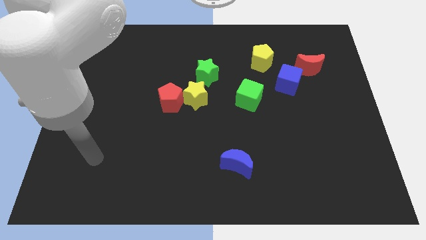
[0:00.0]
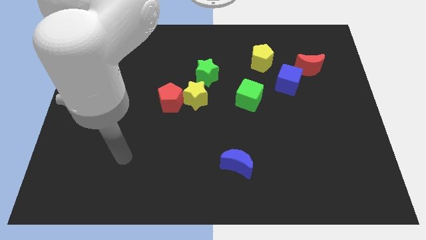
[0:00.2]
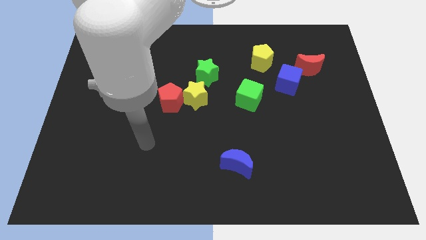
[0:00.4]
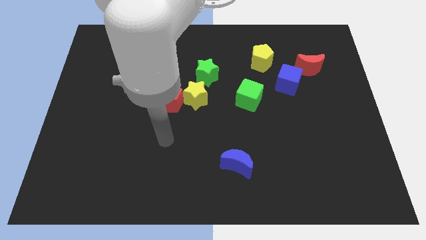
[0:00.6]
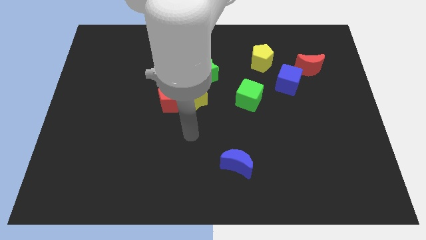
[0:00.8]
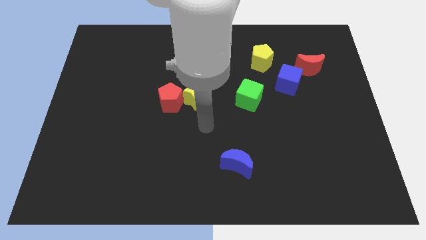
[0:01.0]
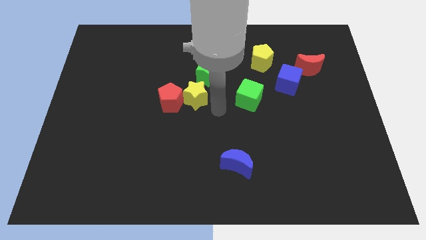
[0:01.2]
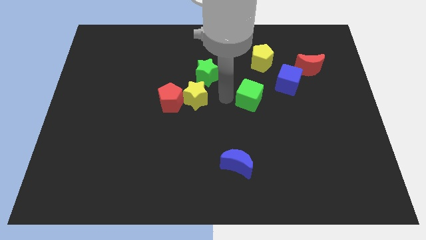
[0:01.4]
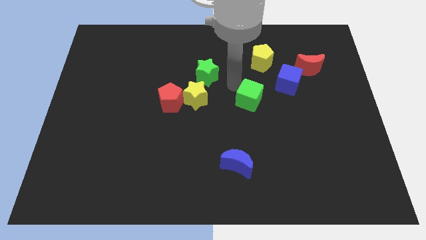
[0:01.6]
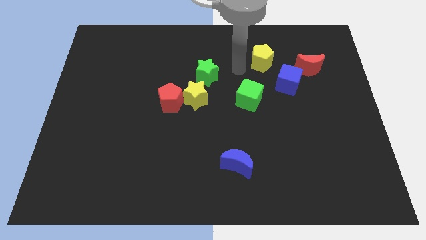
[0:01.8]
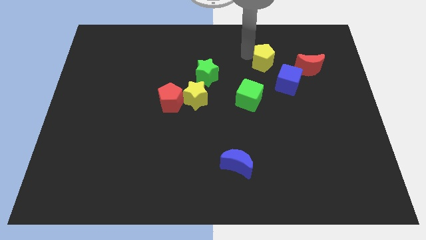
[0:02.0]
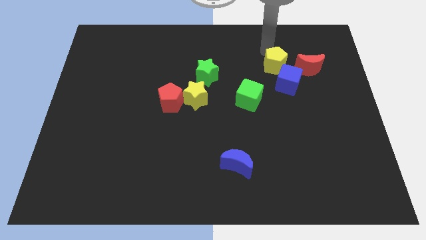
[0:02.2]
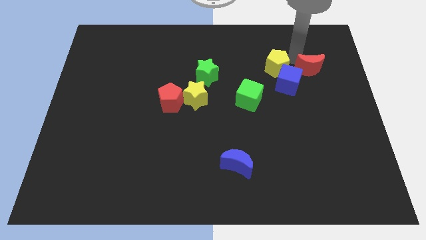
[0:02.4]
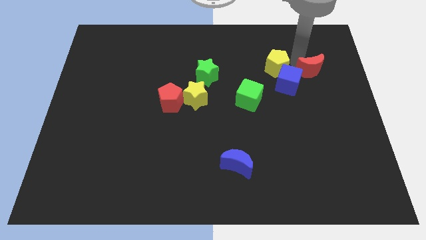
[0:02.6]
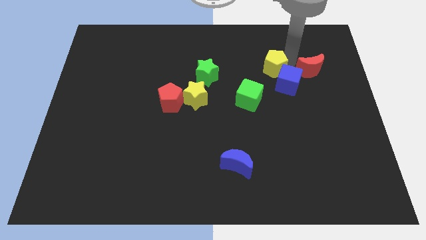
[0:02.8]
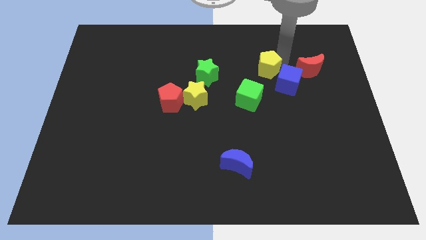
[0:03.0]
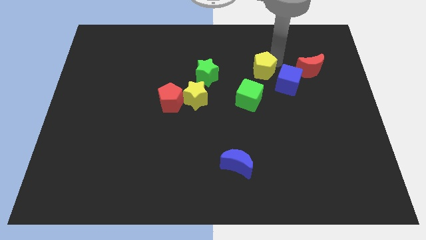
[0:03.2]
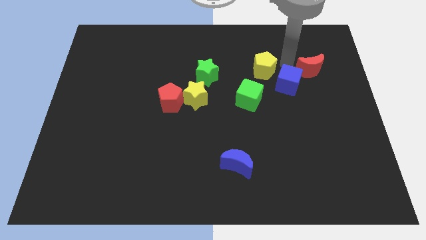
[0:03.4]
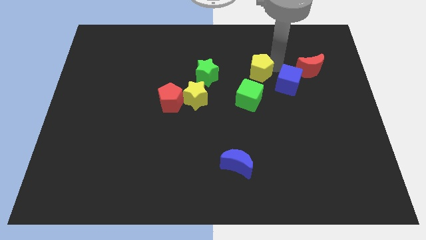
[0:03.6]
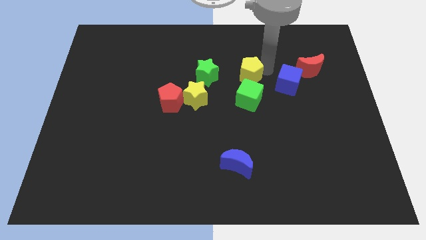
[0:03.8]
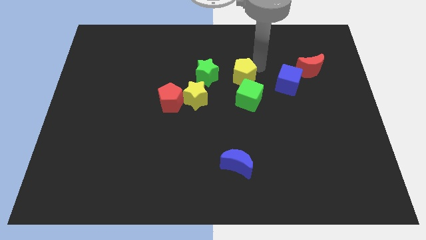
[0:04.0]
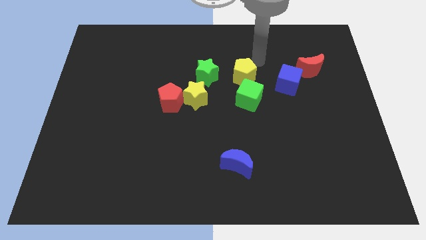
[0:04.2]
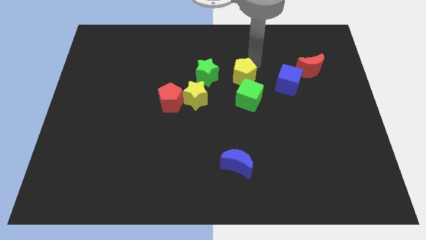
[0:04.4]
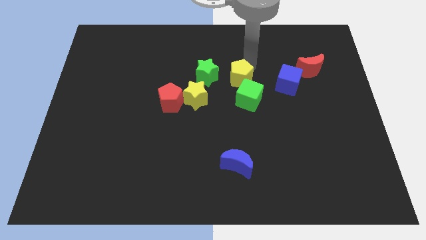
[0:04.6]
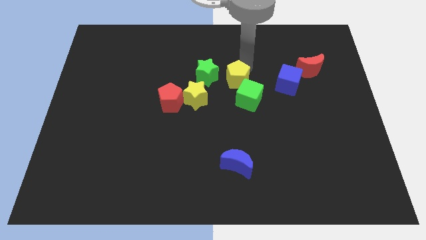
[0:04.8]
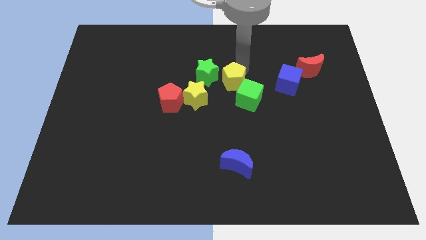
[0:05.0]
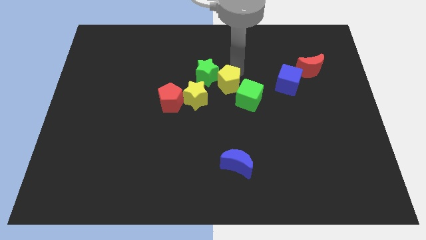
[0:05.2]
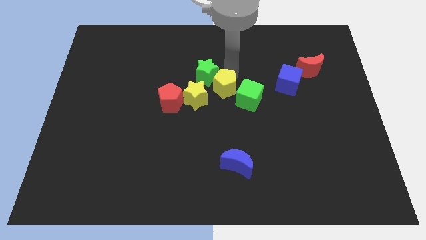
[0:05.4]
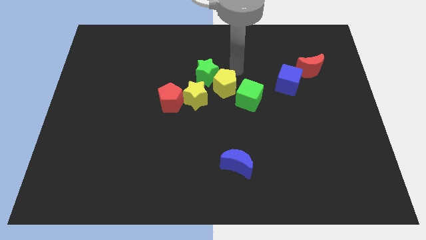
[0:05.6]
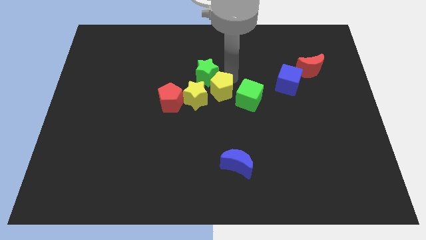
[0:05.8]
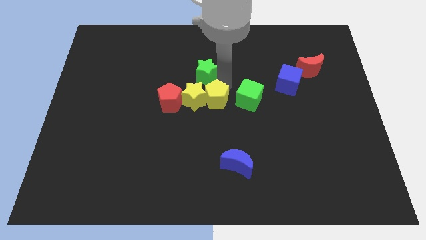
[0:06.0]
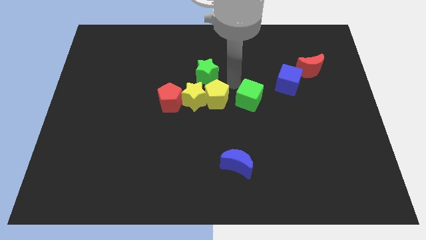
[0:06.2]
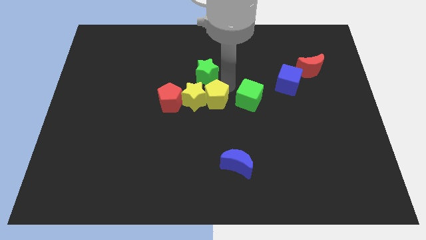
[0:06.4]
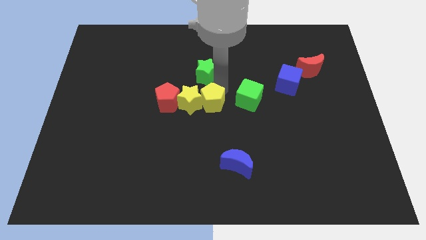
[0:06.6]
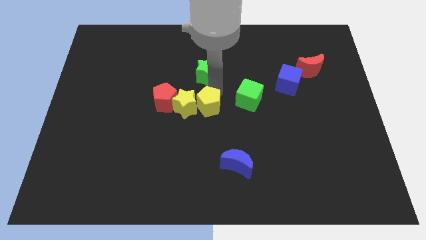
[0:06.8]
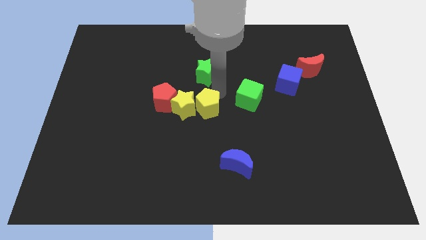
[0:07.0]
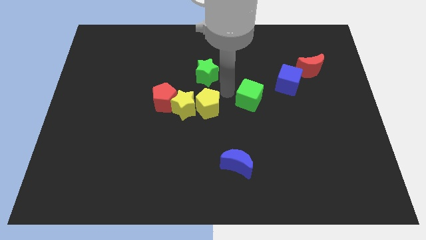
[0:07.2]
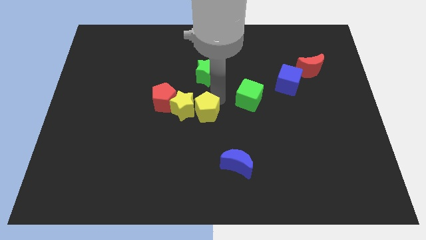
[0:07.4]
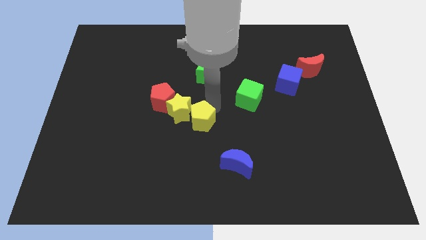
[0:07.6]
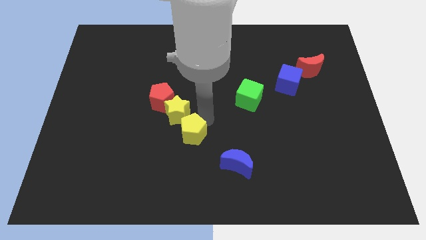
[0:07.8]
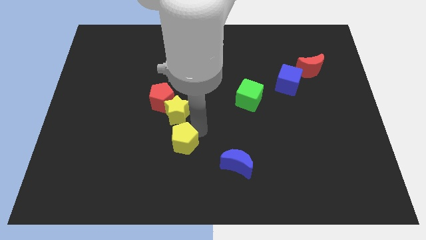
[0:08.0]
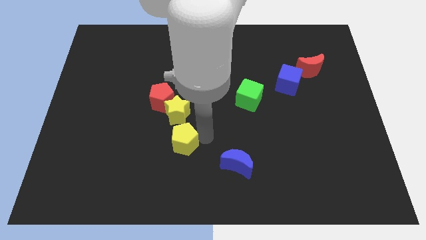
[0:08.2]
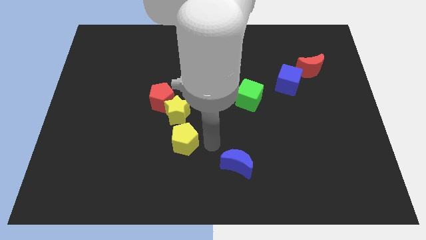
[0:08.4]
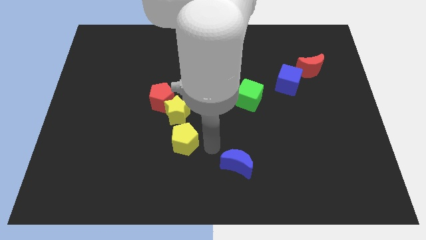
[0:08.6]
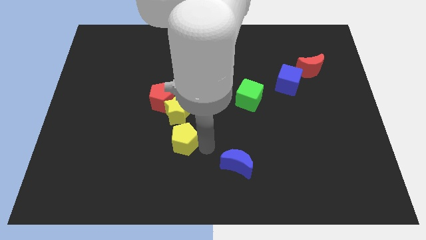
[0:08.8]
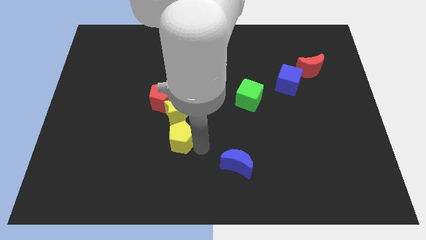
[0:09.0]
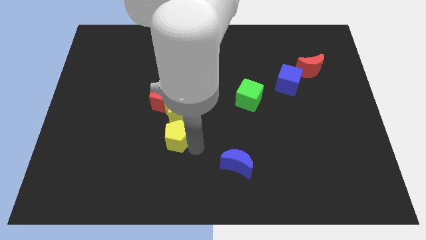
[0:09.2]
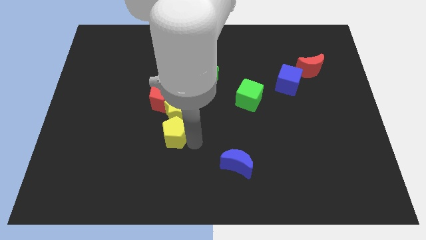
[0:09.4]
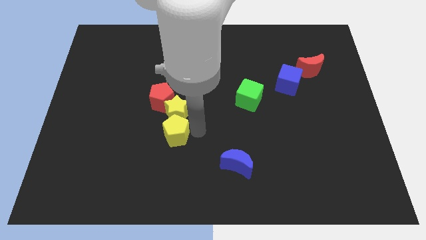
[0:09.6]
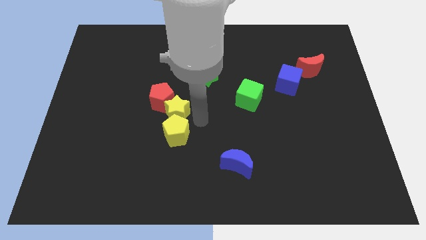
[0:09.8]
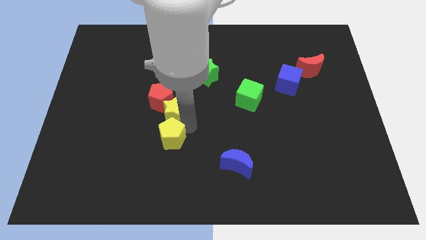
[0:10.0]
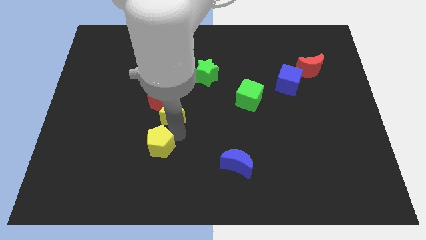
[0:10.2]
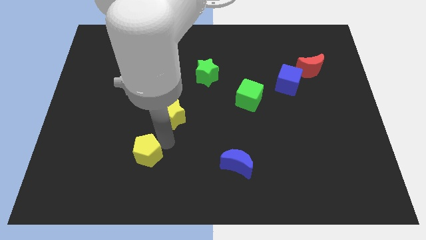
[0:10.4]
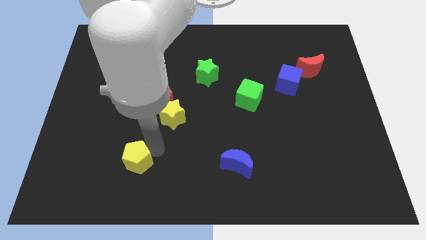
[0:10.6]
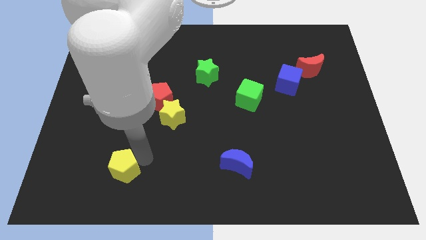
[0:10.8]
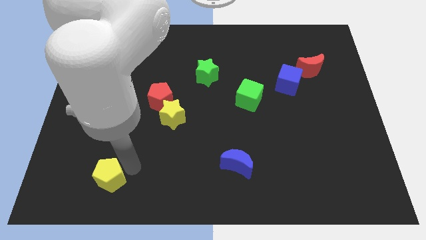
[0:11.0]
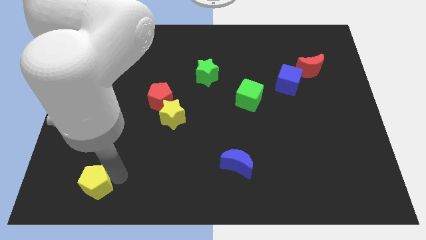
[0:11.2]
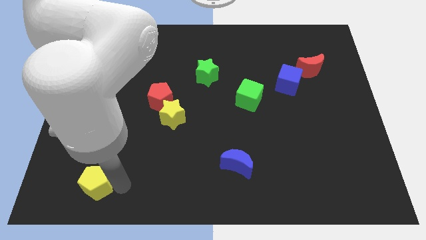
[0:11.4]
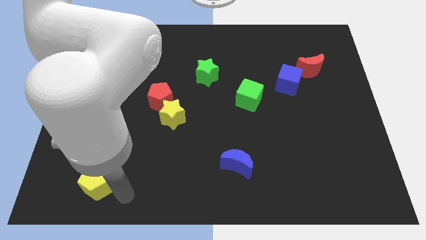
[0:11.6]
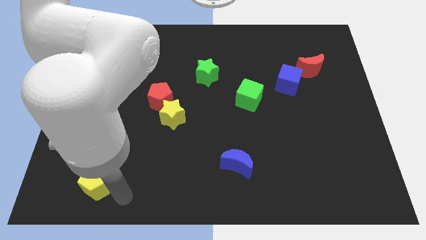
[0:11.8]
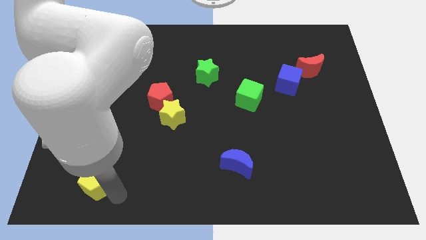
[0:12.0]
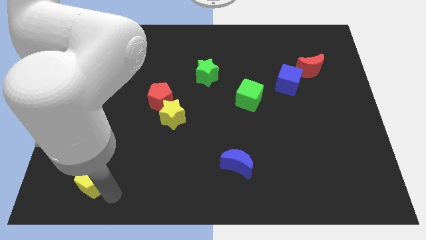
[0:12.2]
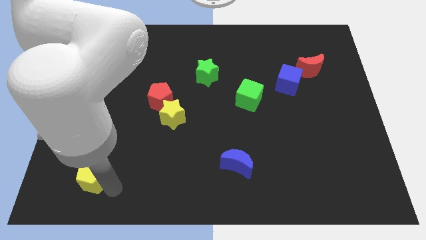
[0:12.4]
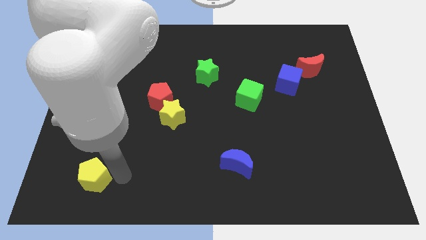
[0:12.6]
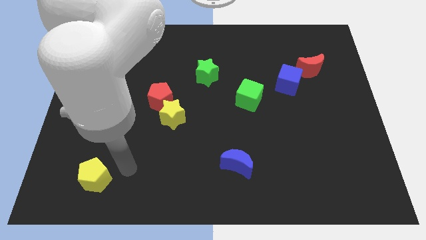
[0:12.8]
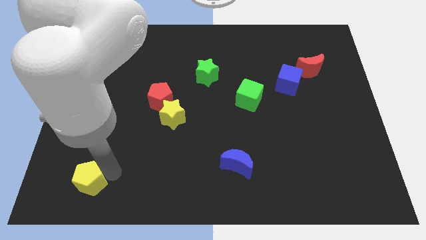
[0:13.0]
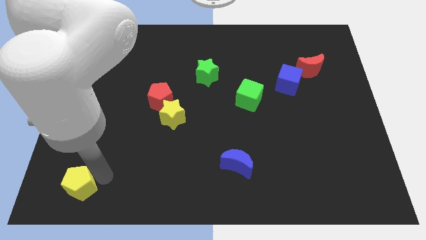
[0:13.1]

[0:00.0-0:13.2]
put the yellow pentagon to the lower left corner
